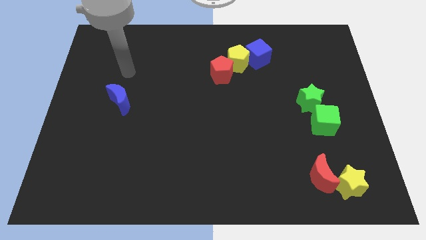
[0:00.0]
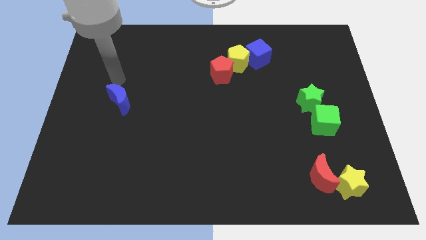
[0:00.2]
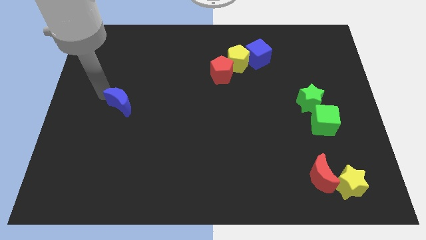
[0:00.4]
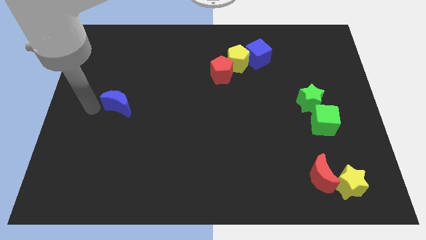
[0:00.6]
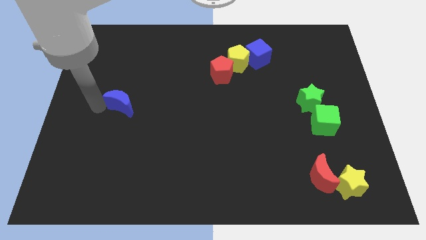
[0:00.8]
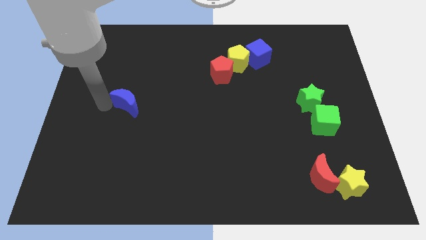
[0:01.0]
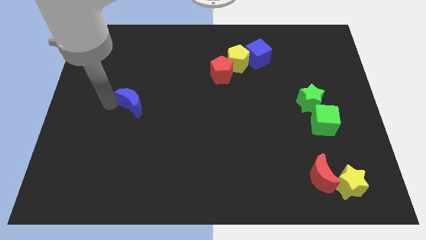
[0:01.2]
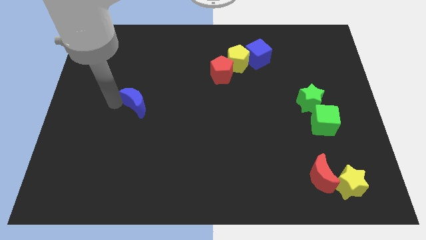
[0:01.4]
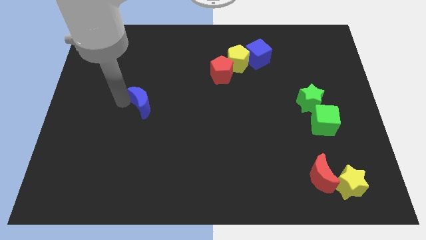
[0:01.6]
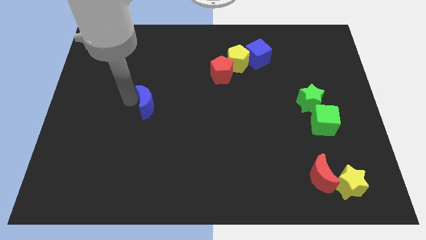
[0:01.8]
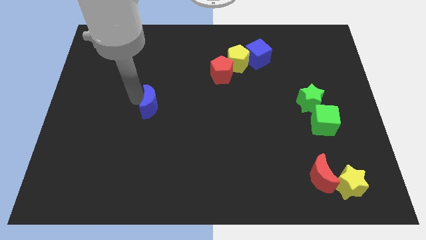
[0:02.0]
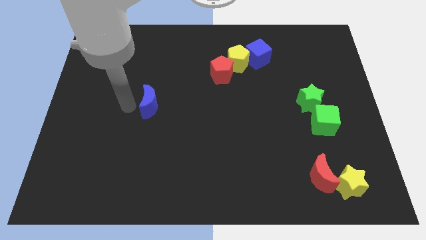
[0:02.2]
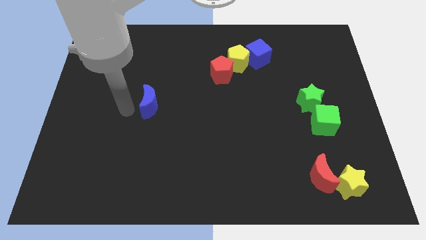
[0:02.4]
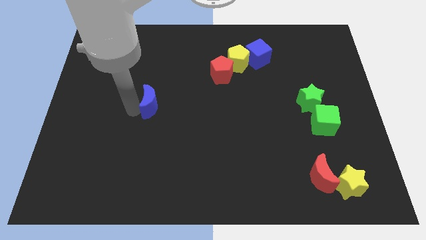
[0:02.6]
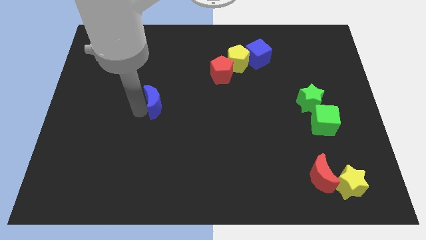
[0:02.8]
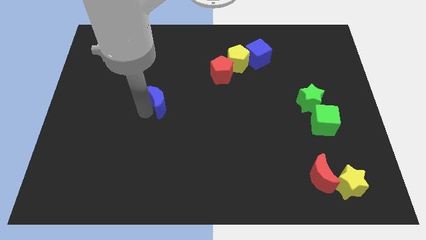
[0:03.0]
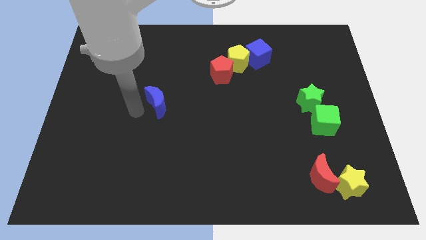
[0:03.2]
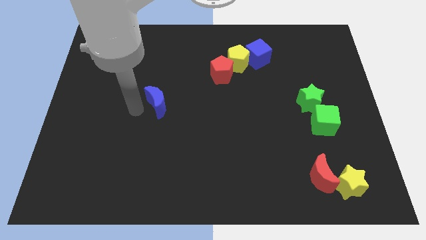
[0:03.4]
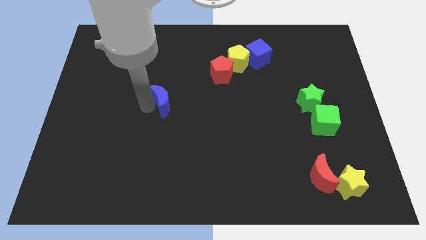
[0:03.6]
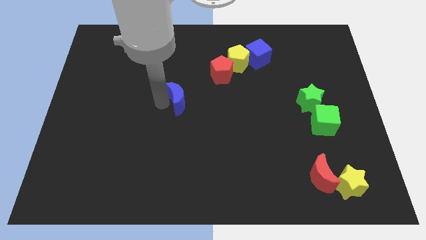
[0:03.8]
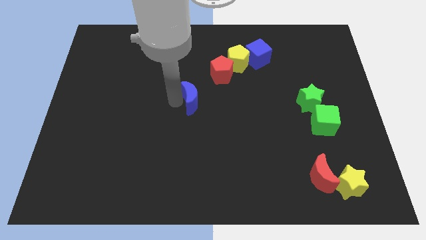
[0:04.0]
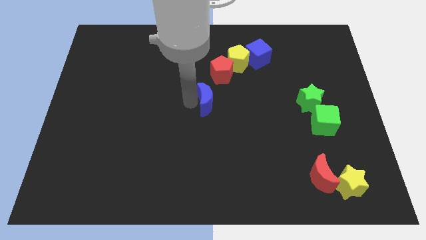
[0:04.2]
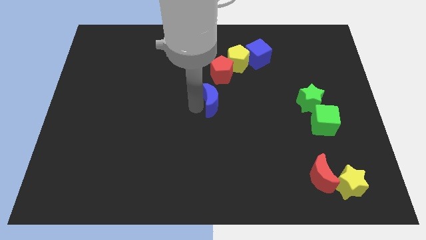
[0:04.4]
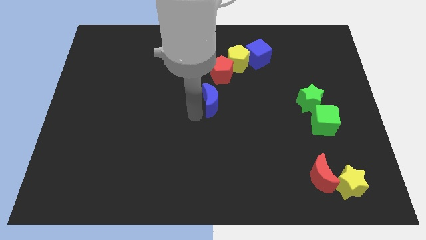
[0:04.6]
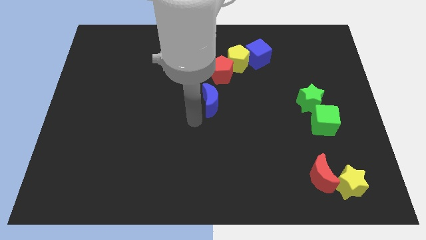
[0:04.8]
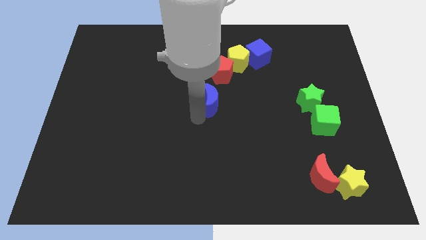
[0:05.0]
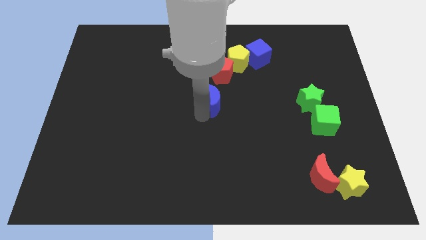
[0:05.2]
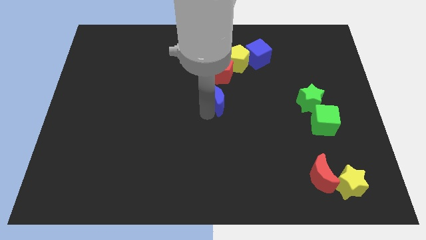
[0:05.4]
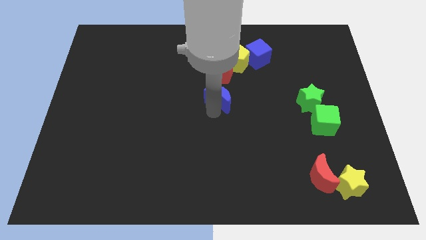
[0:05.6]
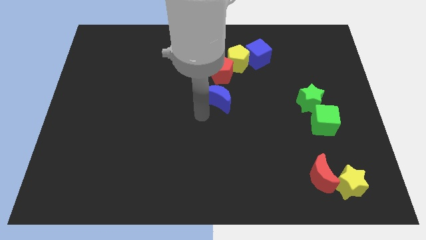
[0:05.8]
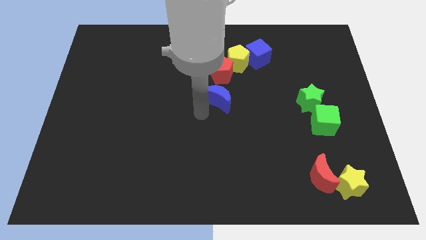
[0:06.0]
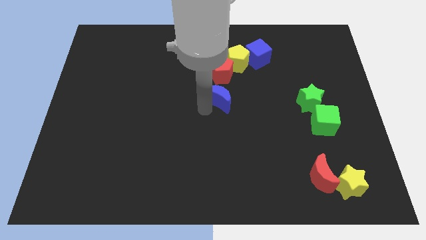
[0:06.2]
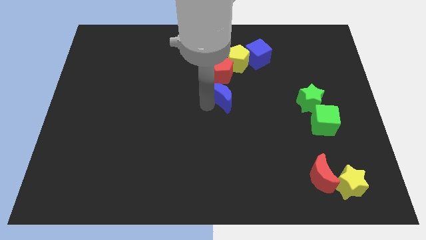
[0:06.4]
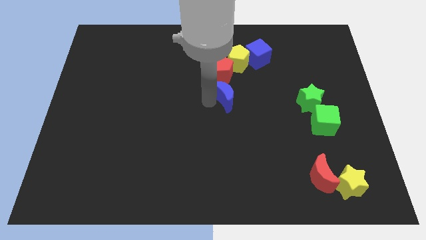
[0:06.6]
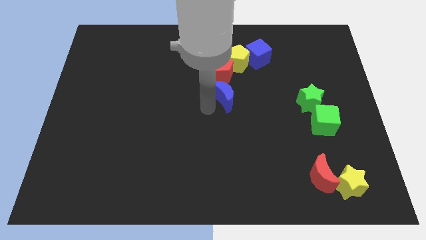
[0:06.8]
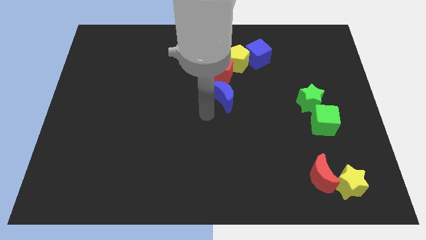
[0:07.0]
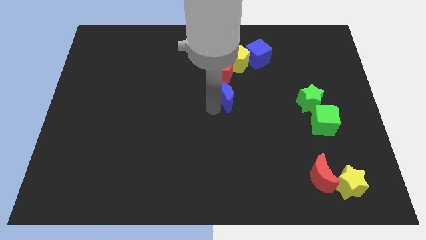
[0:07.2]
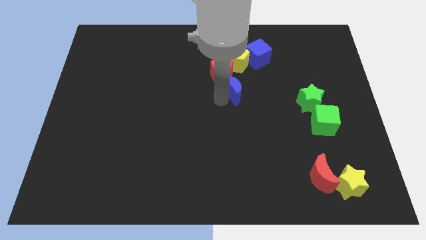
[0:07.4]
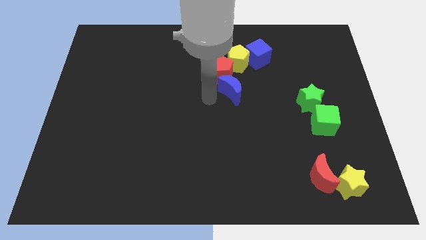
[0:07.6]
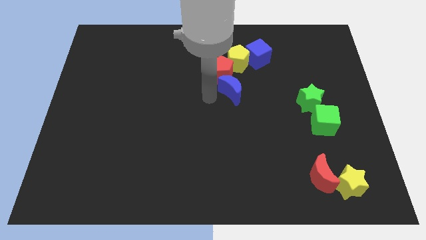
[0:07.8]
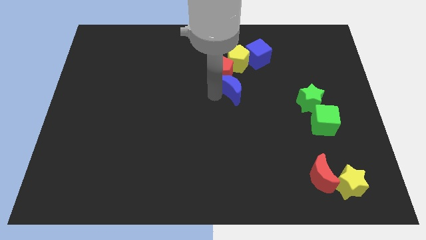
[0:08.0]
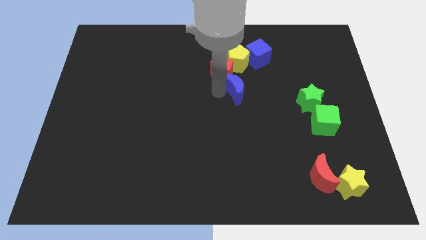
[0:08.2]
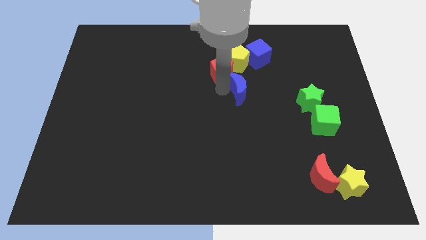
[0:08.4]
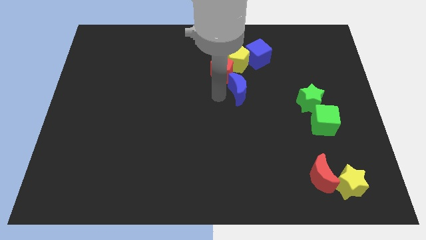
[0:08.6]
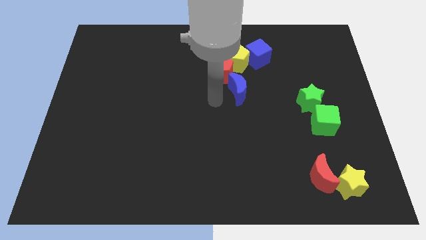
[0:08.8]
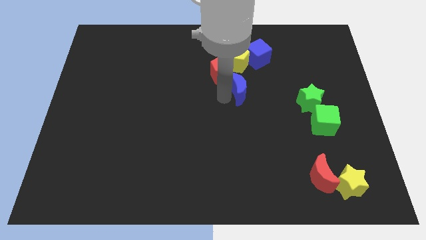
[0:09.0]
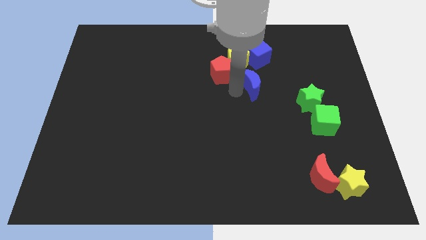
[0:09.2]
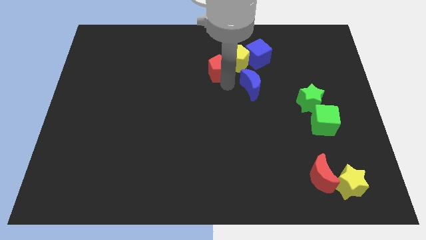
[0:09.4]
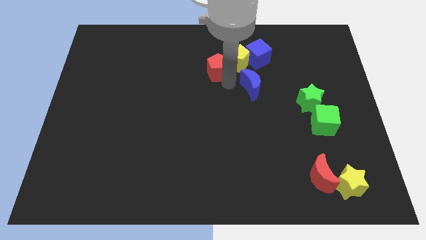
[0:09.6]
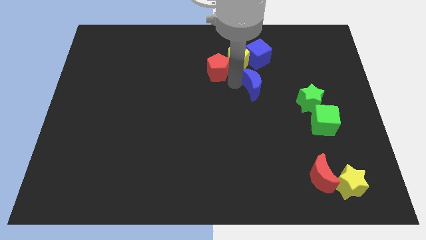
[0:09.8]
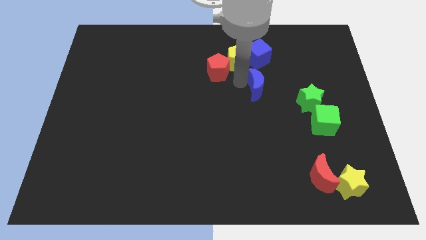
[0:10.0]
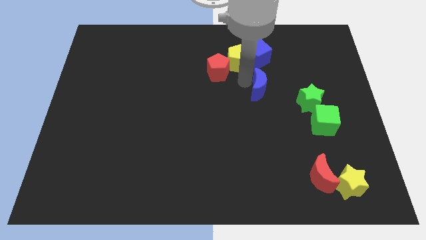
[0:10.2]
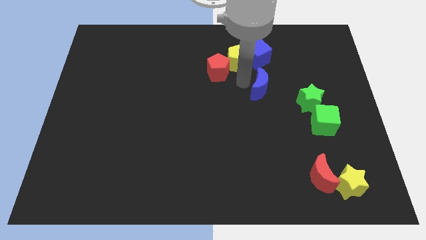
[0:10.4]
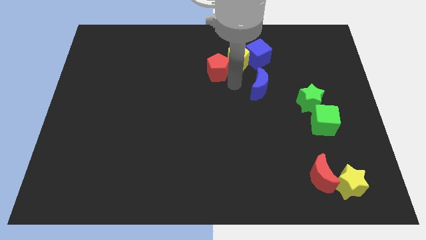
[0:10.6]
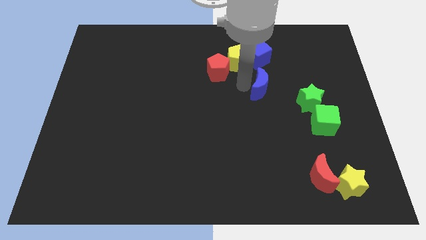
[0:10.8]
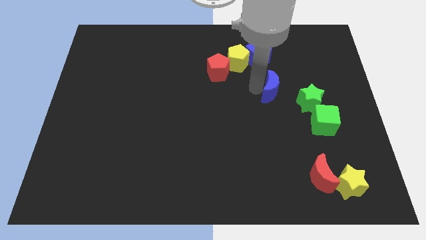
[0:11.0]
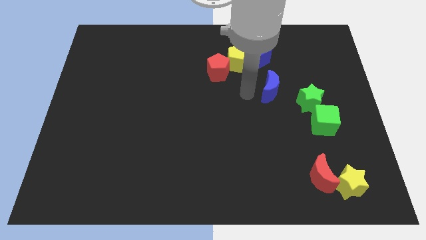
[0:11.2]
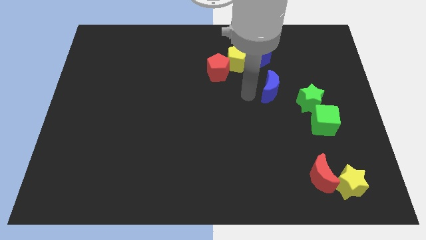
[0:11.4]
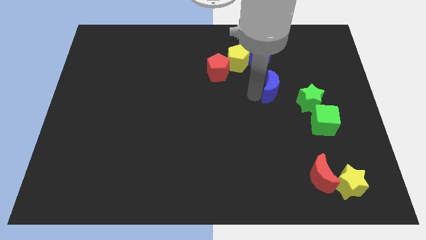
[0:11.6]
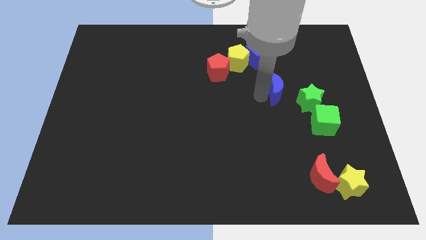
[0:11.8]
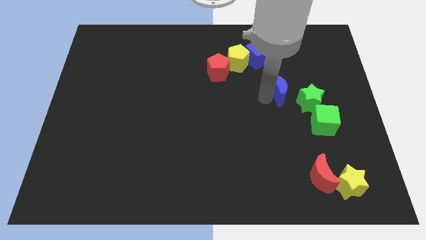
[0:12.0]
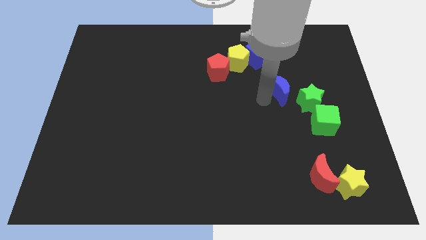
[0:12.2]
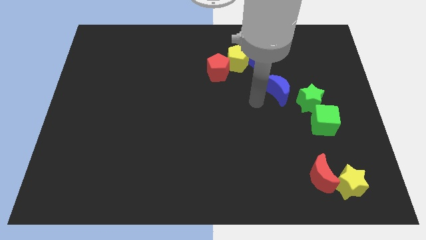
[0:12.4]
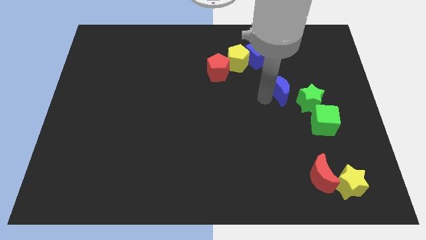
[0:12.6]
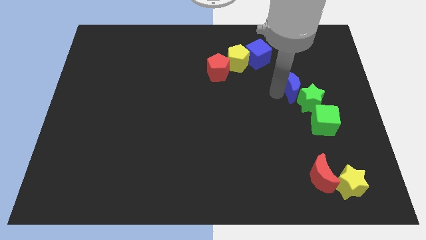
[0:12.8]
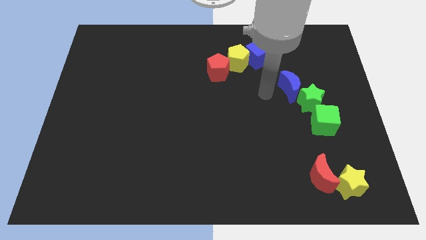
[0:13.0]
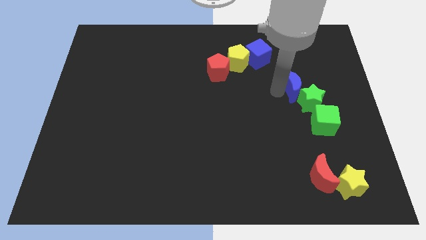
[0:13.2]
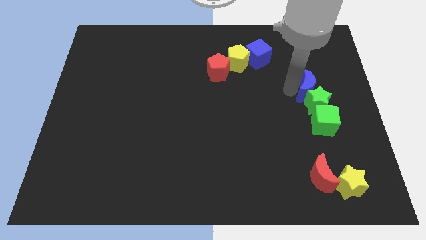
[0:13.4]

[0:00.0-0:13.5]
put the blue moon diagonally up and to the right of the green star

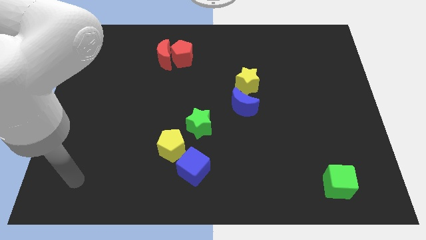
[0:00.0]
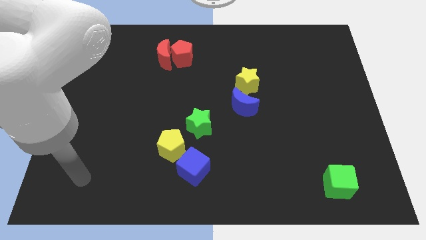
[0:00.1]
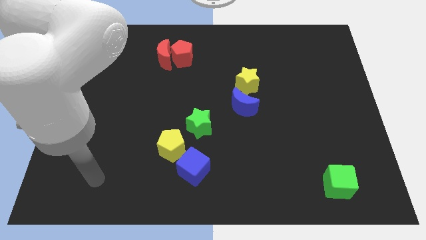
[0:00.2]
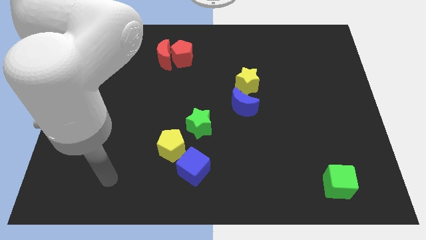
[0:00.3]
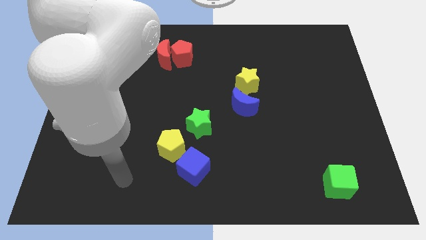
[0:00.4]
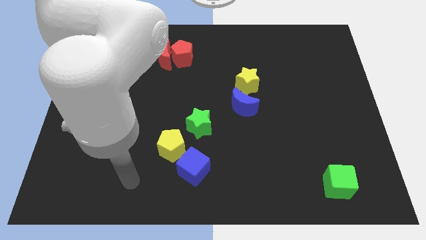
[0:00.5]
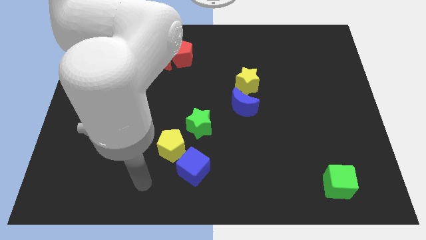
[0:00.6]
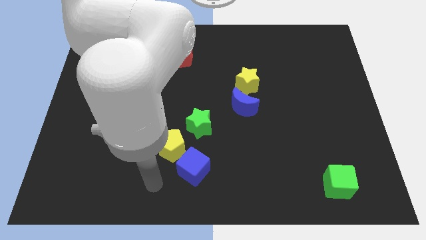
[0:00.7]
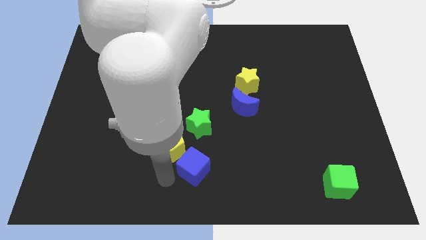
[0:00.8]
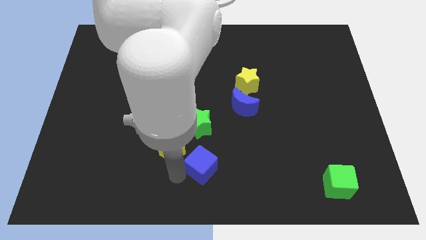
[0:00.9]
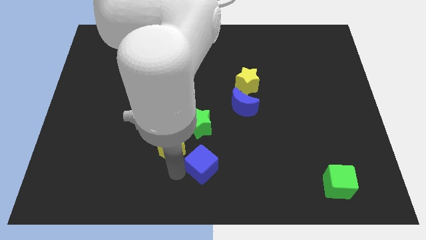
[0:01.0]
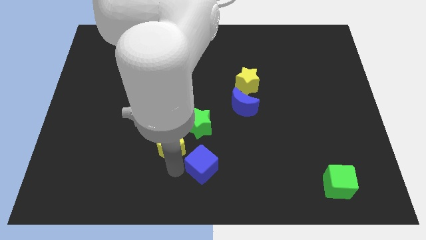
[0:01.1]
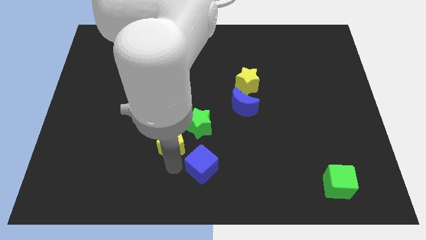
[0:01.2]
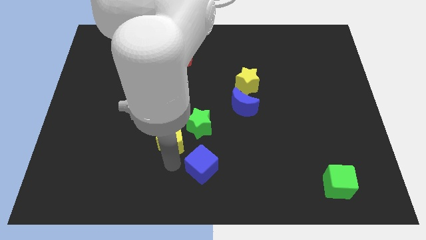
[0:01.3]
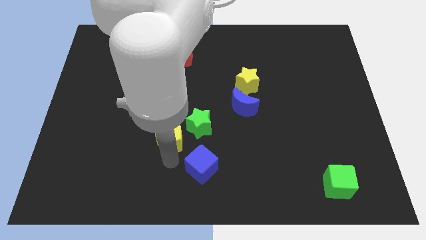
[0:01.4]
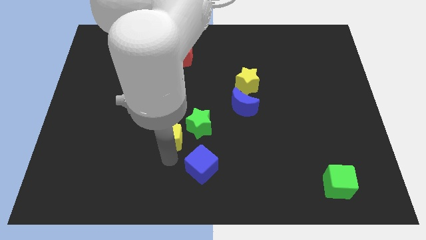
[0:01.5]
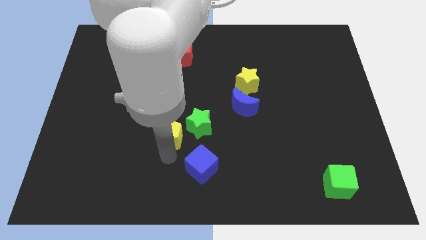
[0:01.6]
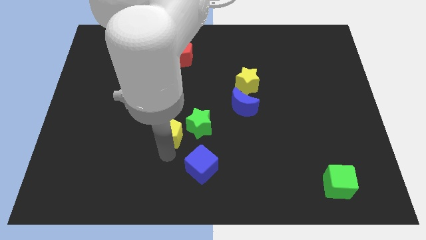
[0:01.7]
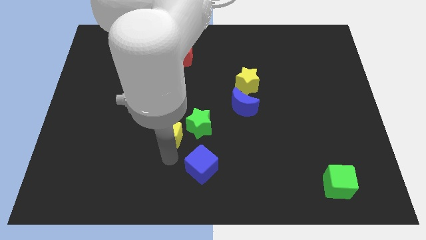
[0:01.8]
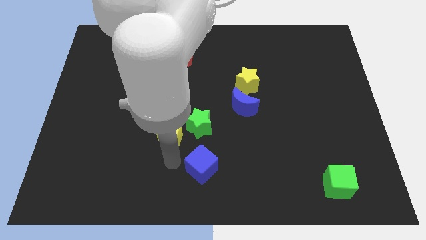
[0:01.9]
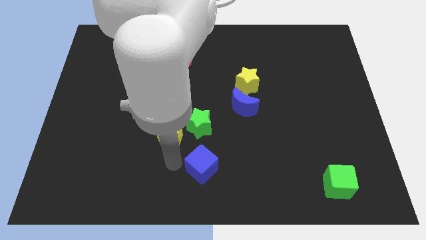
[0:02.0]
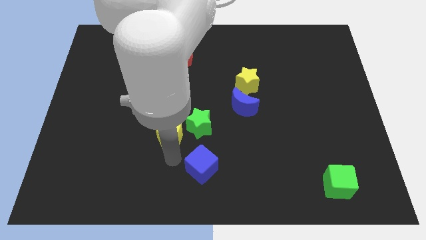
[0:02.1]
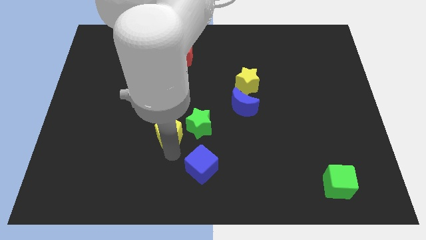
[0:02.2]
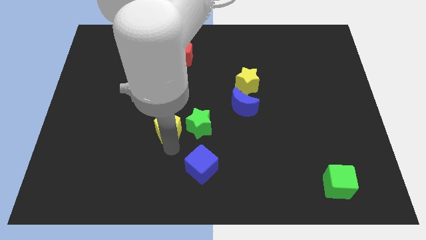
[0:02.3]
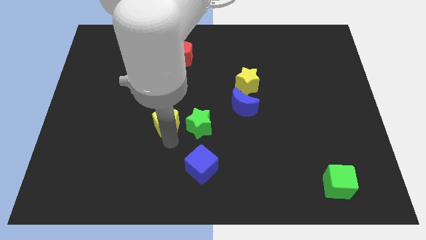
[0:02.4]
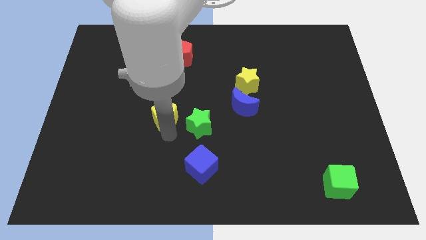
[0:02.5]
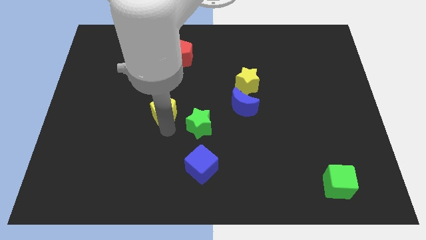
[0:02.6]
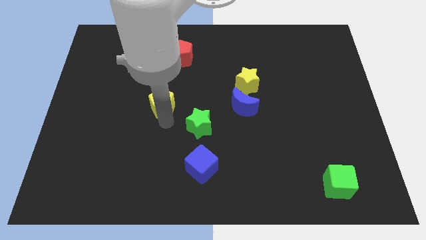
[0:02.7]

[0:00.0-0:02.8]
push the yellow pentagon to the bottom side of the red moon
